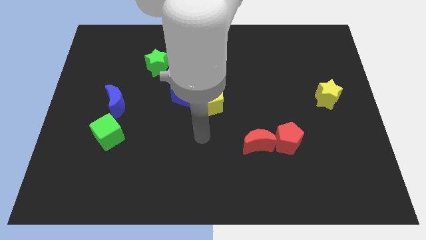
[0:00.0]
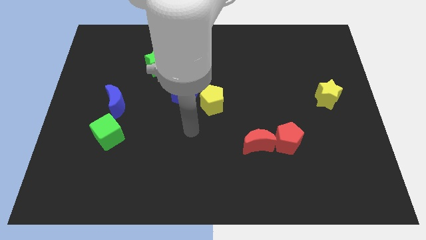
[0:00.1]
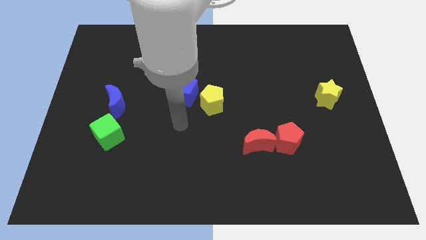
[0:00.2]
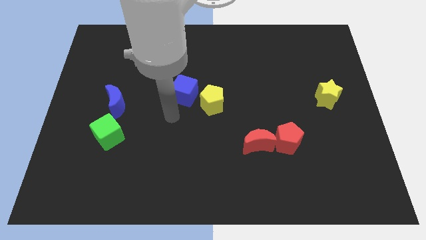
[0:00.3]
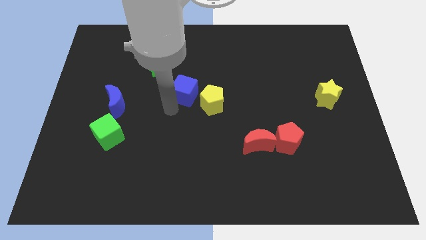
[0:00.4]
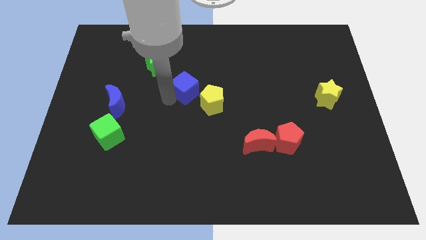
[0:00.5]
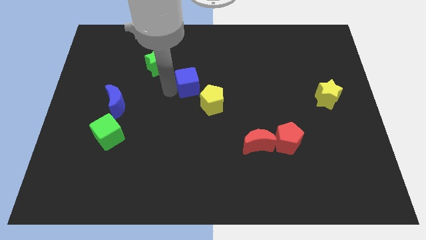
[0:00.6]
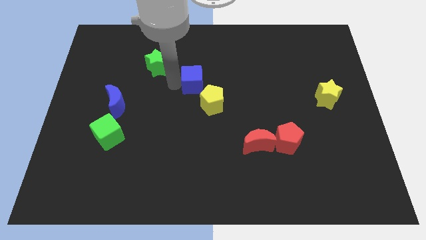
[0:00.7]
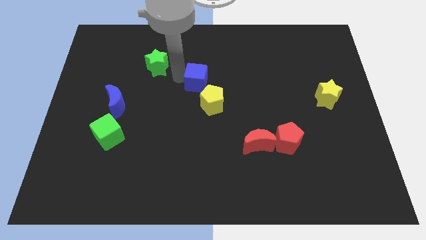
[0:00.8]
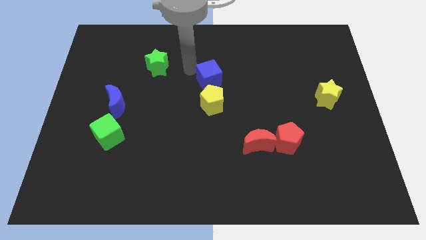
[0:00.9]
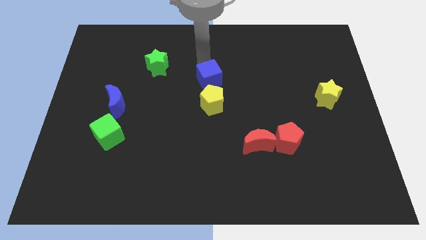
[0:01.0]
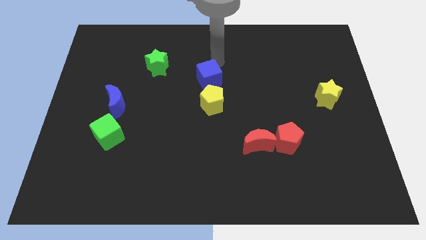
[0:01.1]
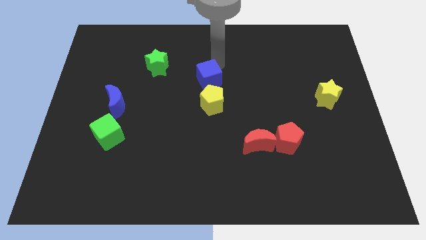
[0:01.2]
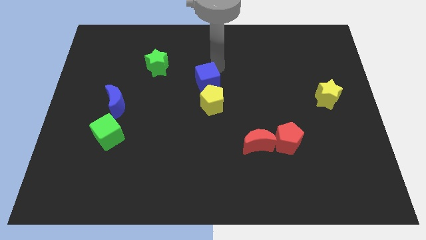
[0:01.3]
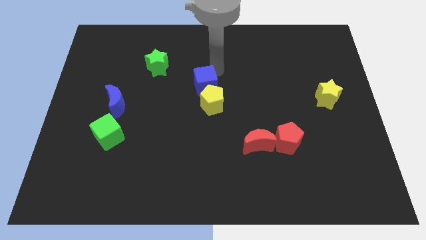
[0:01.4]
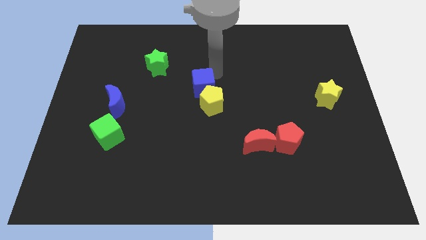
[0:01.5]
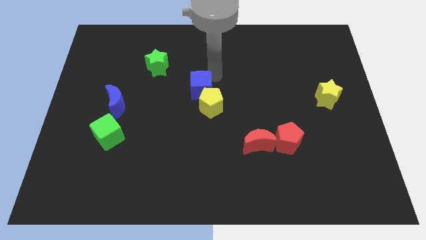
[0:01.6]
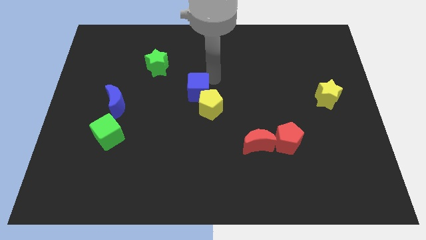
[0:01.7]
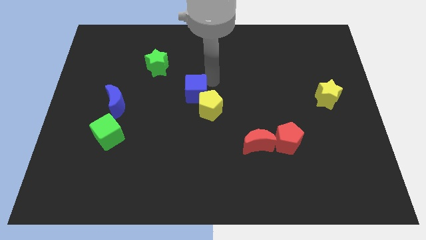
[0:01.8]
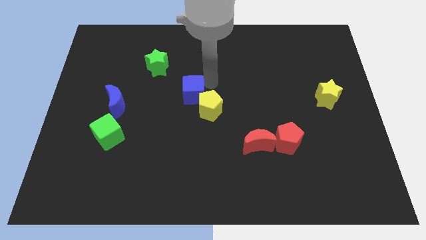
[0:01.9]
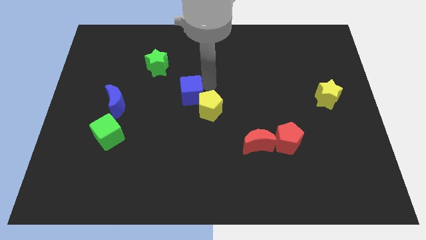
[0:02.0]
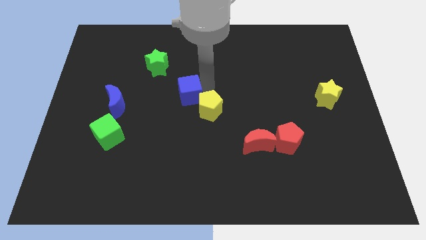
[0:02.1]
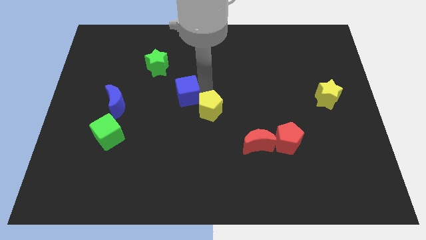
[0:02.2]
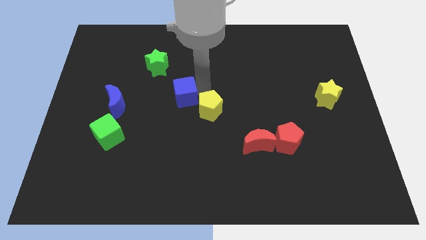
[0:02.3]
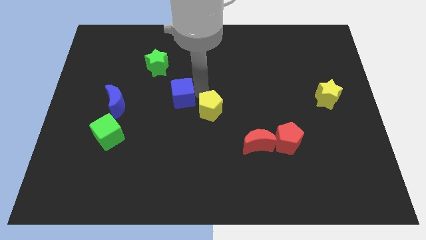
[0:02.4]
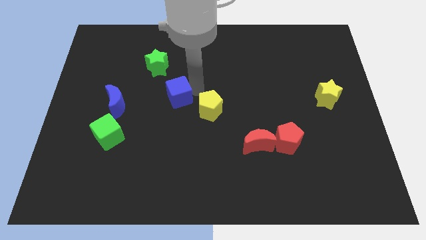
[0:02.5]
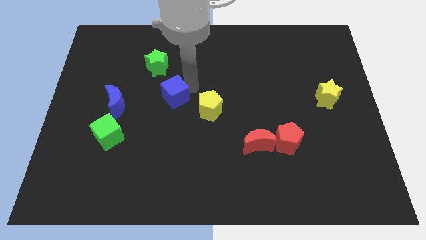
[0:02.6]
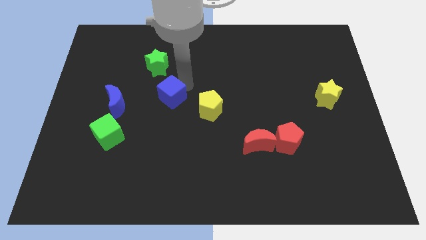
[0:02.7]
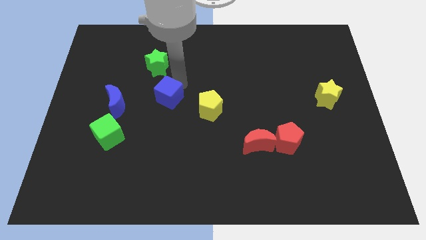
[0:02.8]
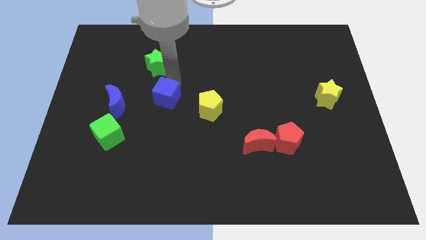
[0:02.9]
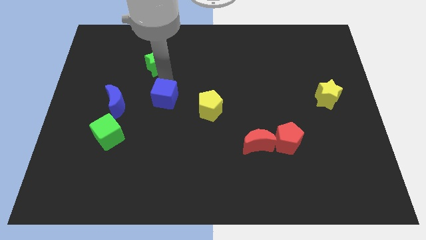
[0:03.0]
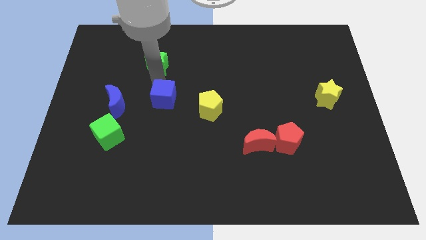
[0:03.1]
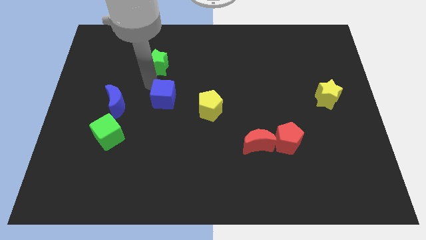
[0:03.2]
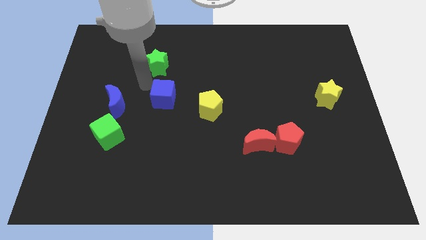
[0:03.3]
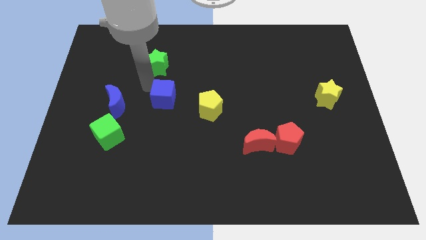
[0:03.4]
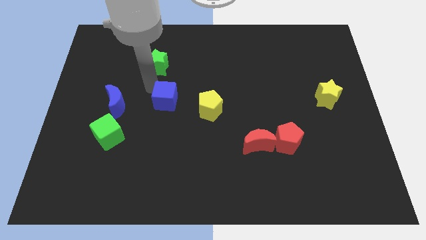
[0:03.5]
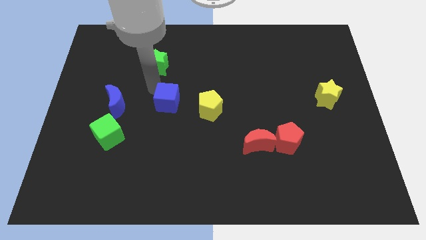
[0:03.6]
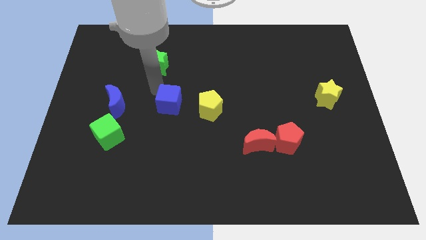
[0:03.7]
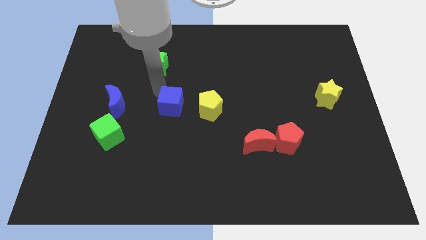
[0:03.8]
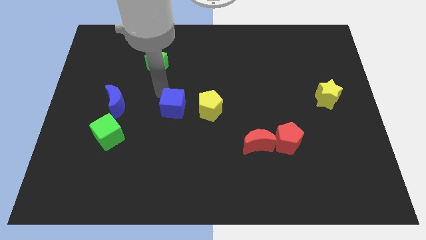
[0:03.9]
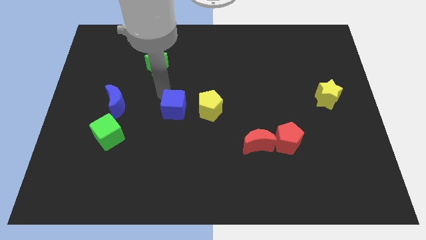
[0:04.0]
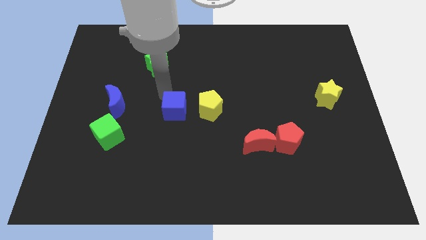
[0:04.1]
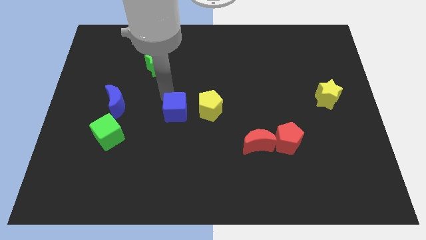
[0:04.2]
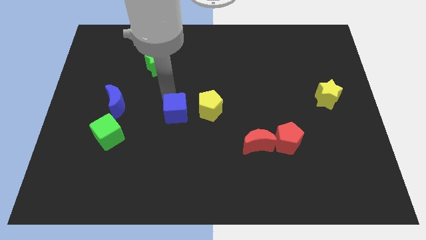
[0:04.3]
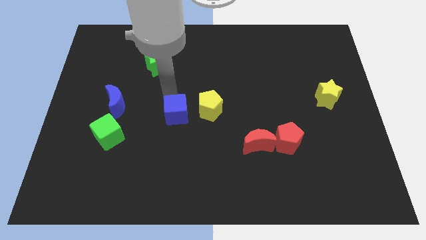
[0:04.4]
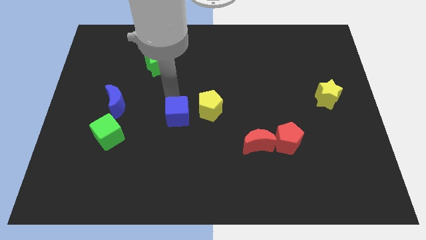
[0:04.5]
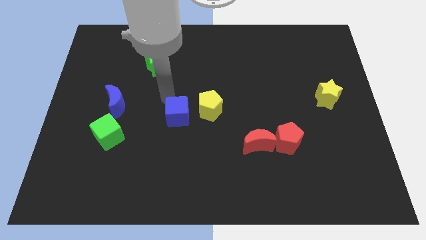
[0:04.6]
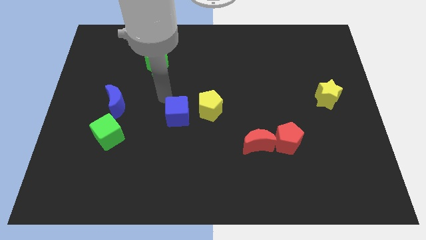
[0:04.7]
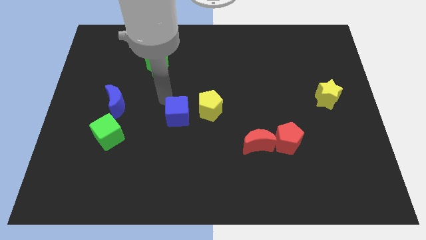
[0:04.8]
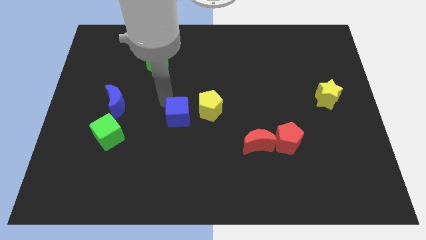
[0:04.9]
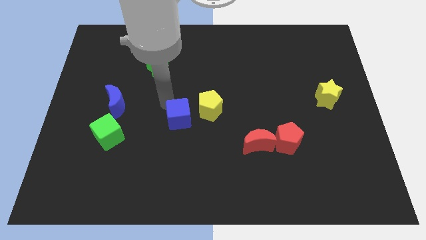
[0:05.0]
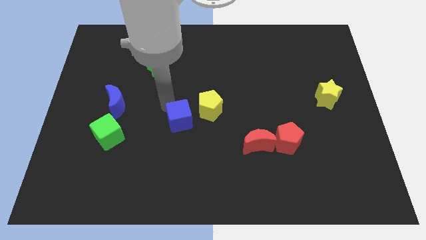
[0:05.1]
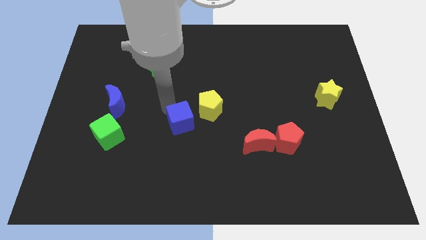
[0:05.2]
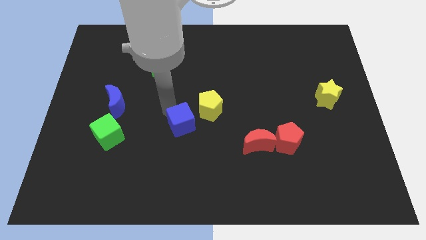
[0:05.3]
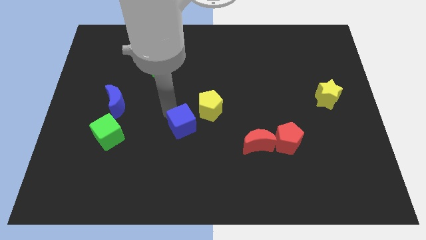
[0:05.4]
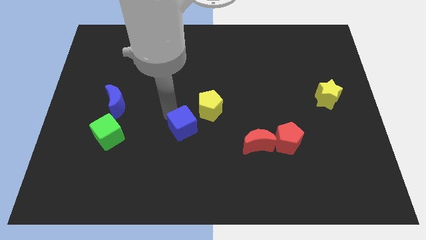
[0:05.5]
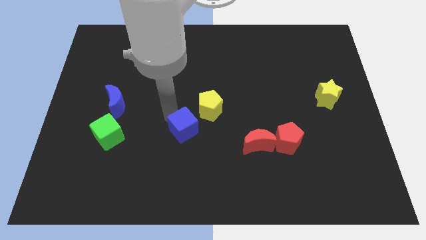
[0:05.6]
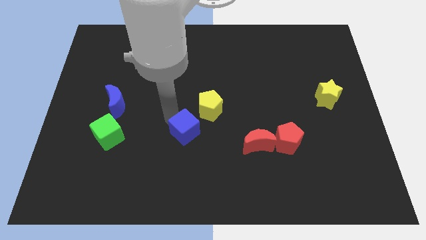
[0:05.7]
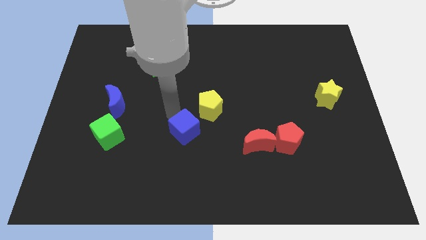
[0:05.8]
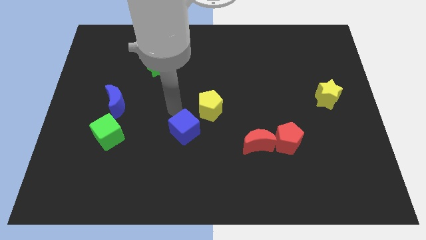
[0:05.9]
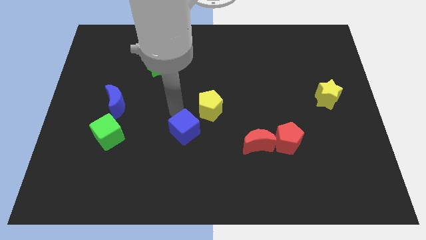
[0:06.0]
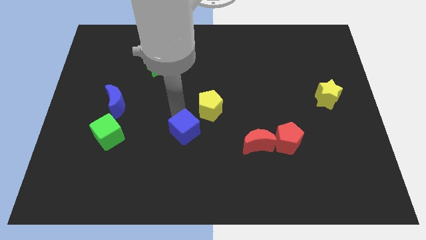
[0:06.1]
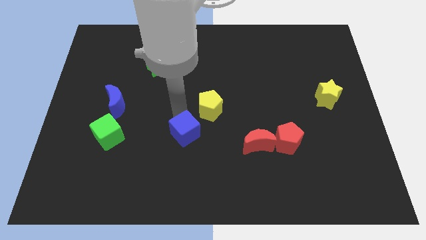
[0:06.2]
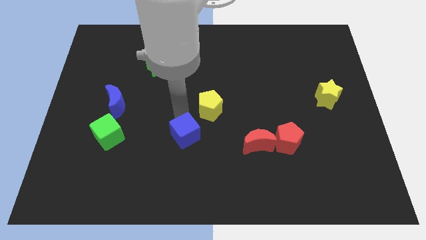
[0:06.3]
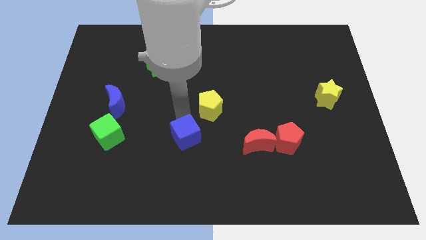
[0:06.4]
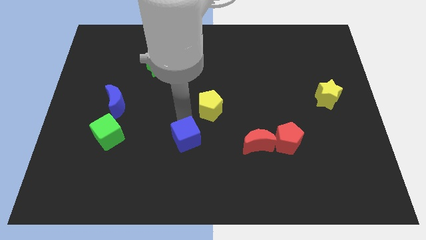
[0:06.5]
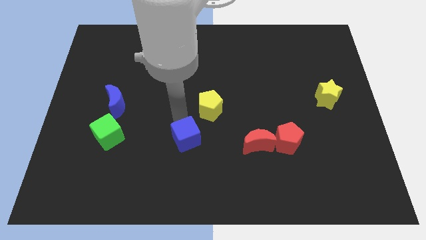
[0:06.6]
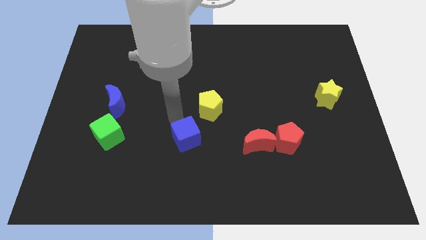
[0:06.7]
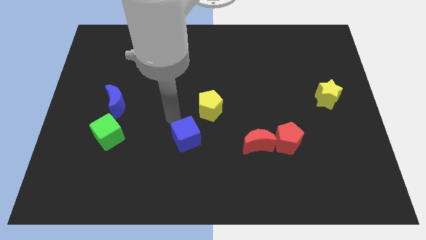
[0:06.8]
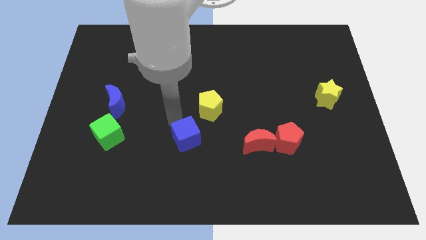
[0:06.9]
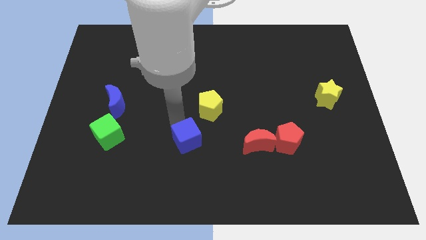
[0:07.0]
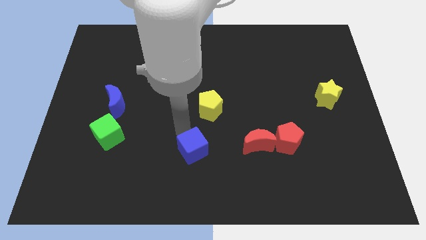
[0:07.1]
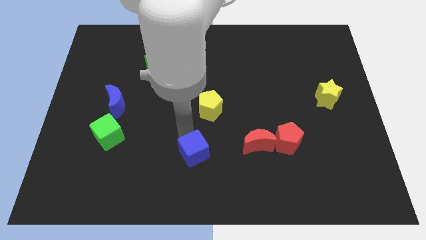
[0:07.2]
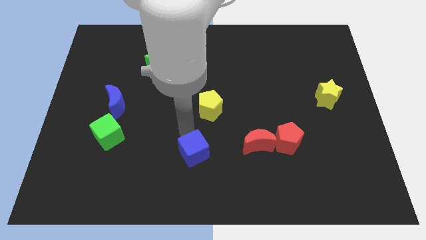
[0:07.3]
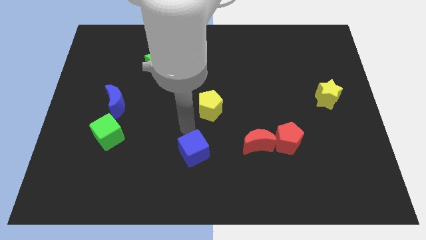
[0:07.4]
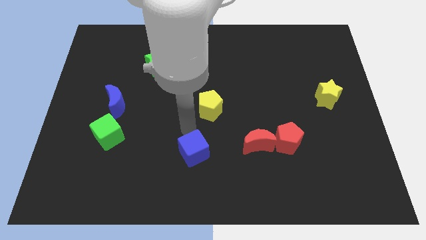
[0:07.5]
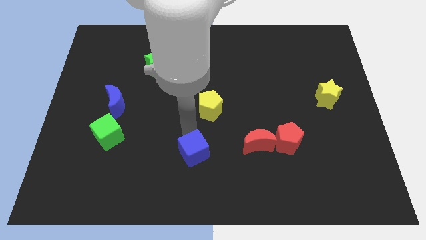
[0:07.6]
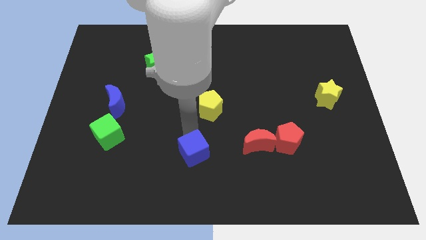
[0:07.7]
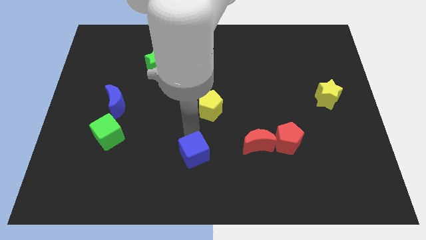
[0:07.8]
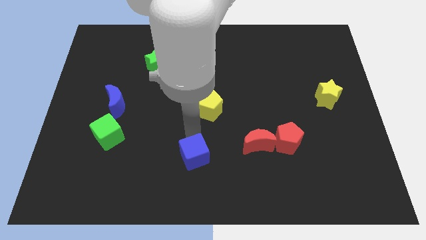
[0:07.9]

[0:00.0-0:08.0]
push the blue cube to the bottom
